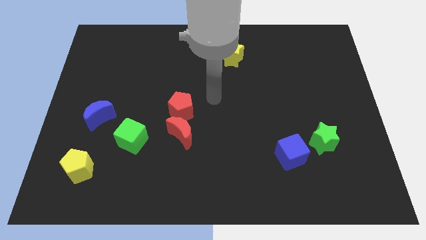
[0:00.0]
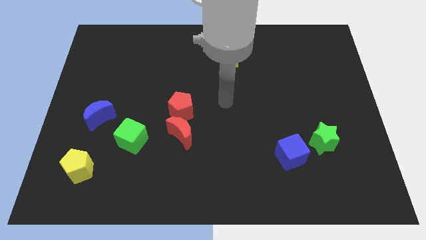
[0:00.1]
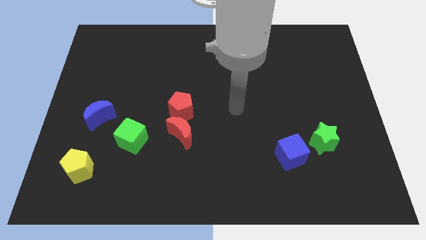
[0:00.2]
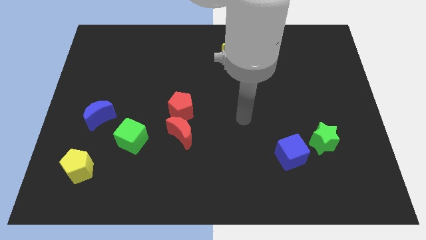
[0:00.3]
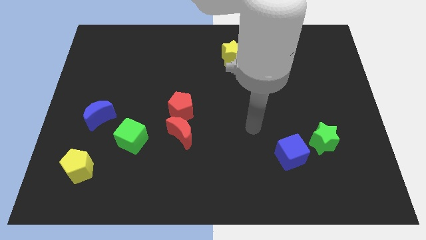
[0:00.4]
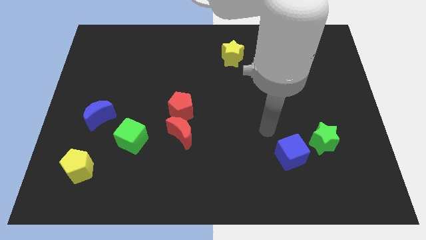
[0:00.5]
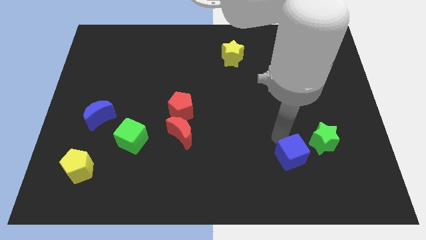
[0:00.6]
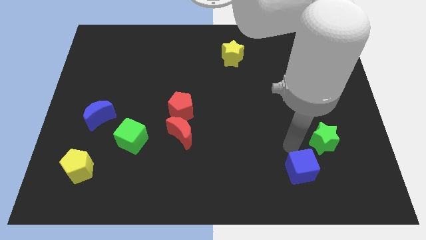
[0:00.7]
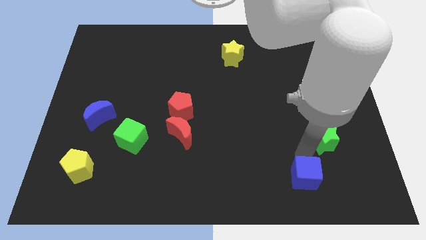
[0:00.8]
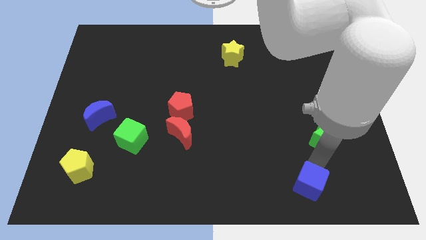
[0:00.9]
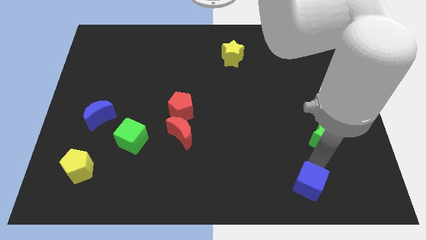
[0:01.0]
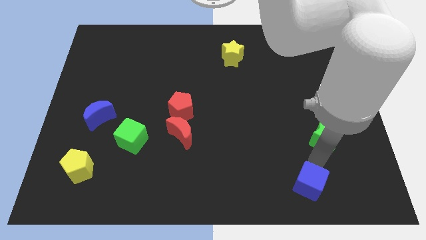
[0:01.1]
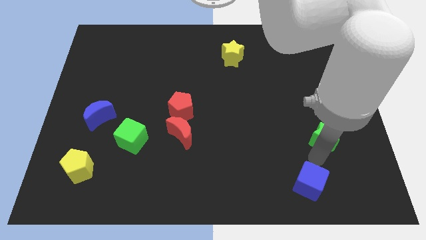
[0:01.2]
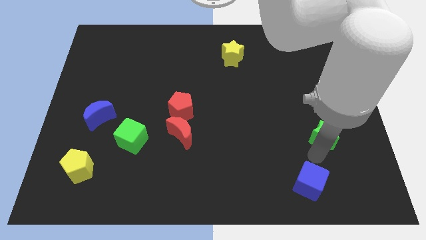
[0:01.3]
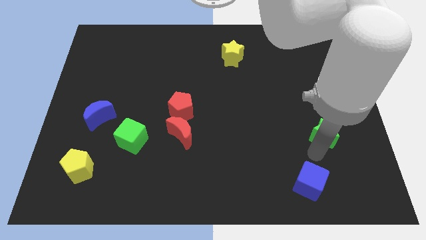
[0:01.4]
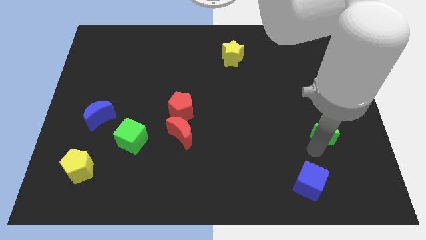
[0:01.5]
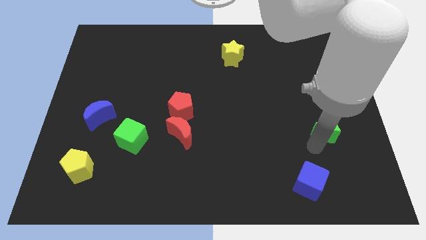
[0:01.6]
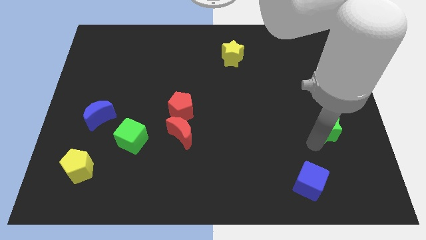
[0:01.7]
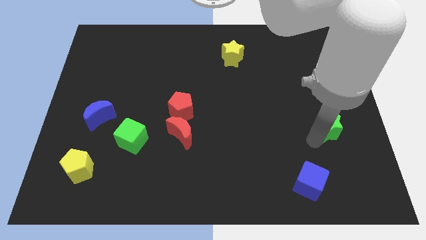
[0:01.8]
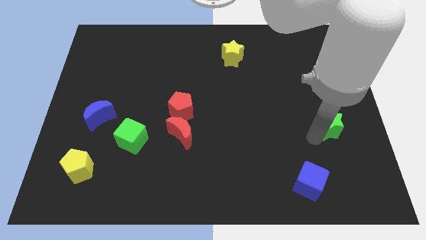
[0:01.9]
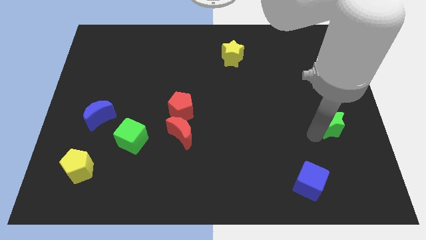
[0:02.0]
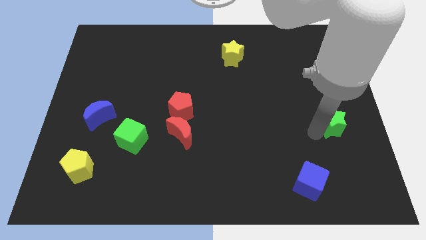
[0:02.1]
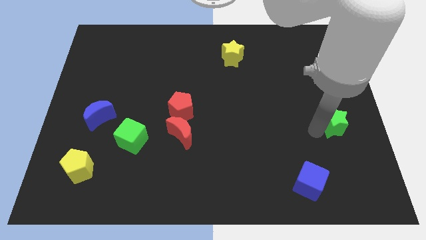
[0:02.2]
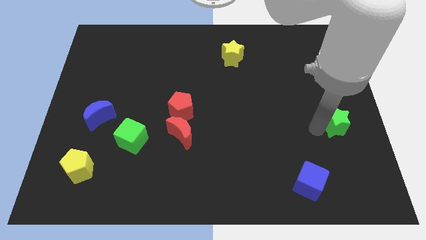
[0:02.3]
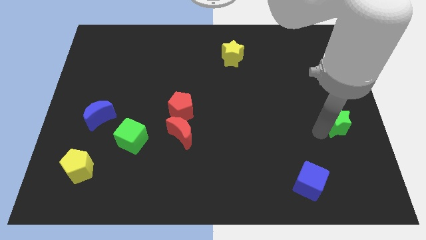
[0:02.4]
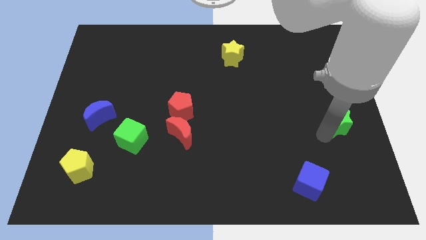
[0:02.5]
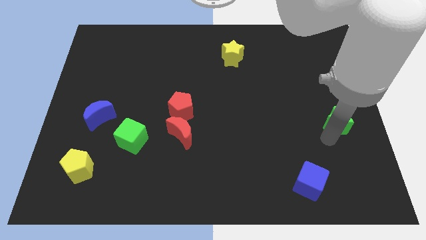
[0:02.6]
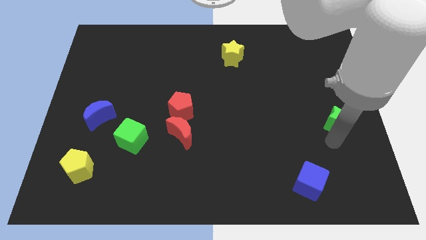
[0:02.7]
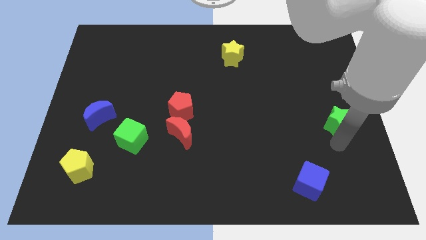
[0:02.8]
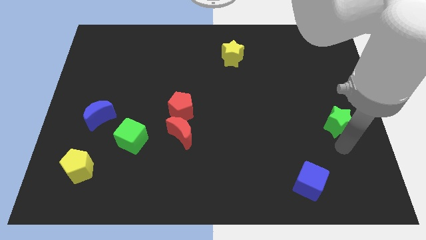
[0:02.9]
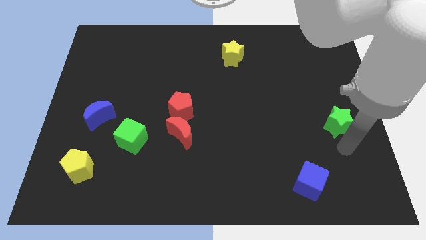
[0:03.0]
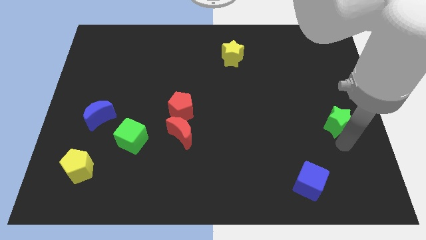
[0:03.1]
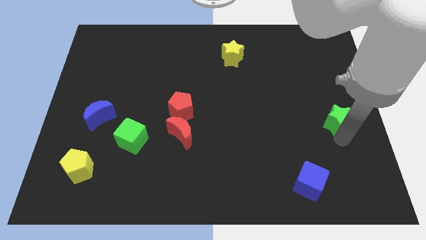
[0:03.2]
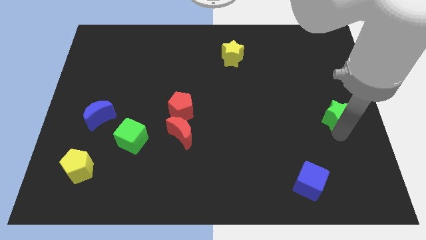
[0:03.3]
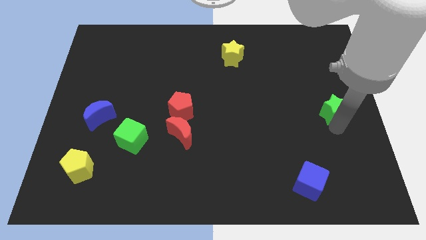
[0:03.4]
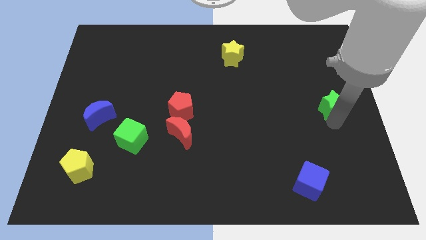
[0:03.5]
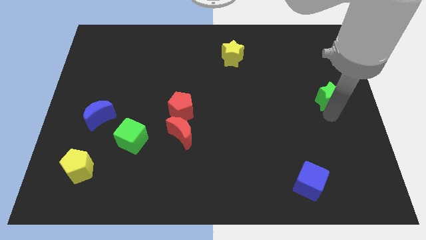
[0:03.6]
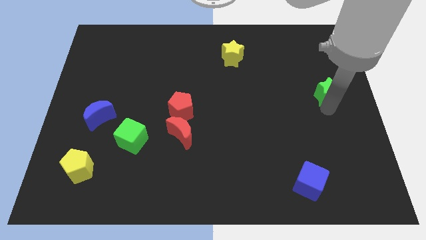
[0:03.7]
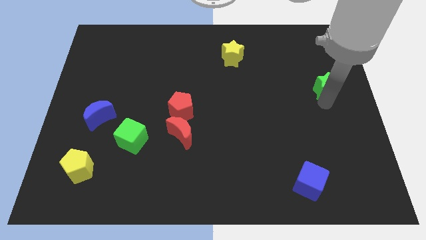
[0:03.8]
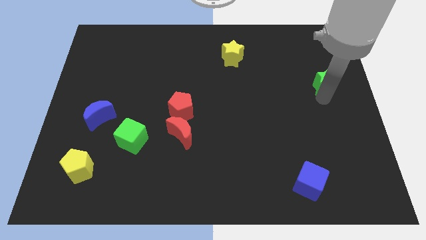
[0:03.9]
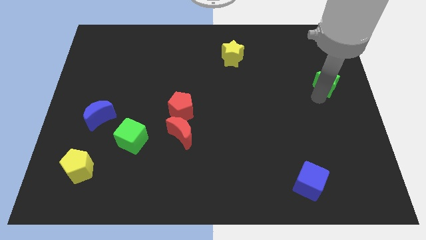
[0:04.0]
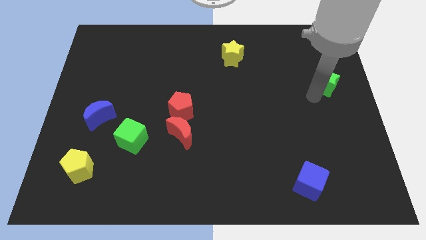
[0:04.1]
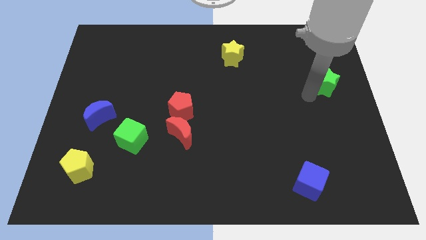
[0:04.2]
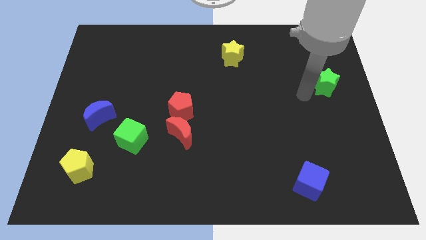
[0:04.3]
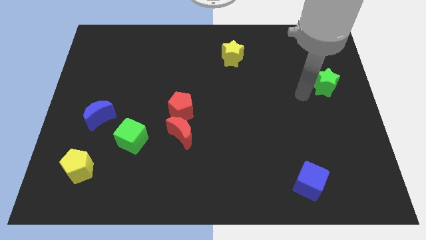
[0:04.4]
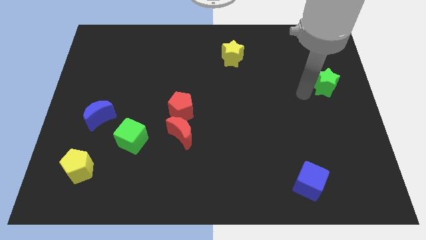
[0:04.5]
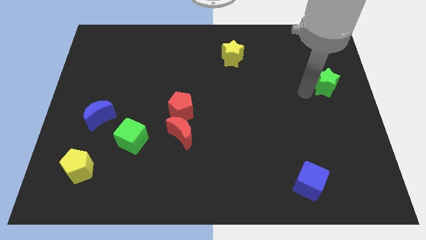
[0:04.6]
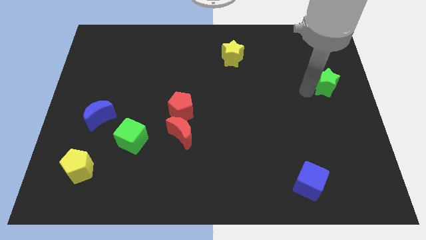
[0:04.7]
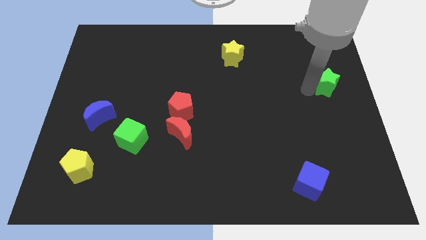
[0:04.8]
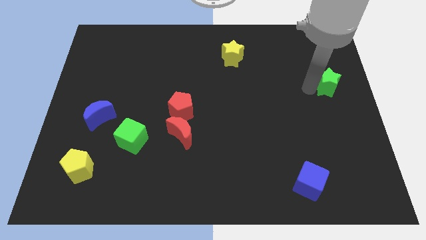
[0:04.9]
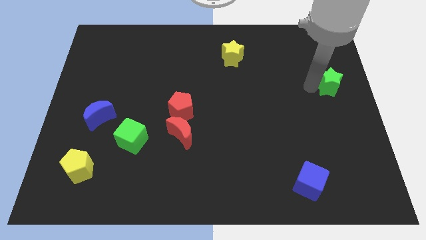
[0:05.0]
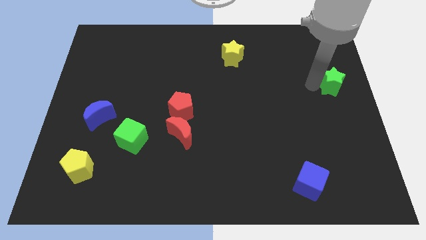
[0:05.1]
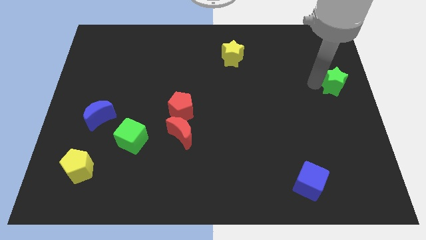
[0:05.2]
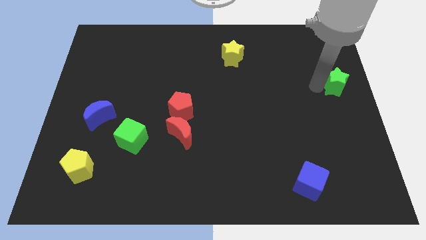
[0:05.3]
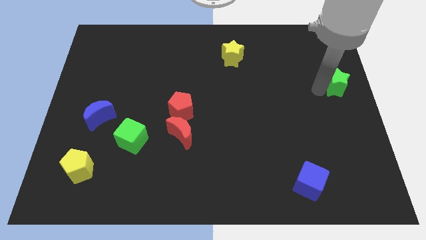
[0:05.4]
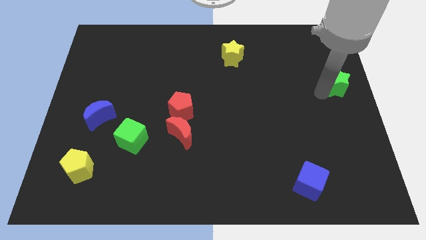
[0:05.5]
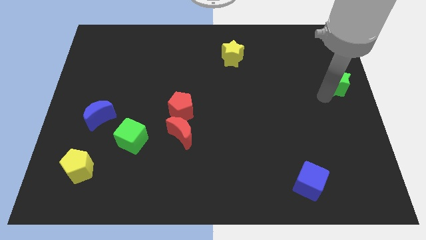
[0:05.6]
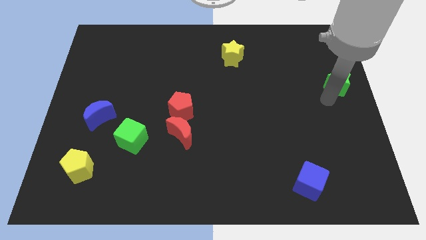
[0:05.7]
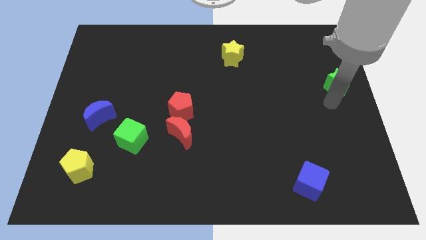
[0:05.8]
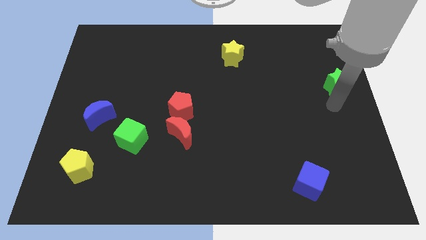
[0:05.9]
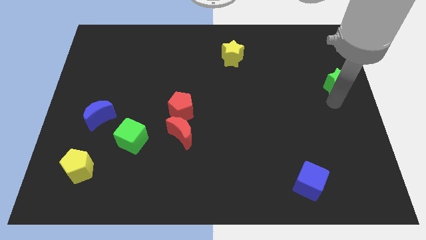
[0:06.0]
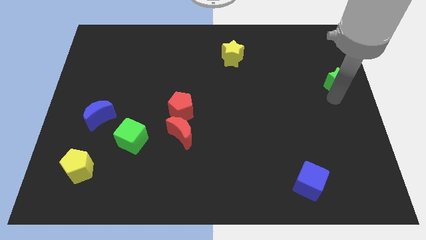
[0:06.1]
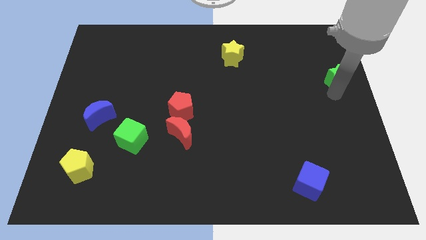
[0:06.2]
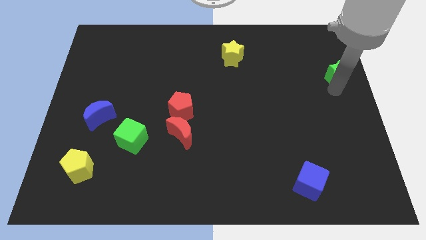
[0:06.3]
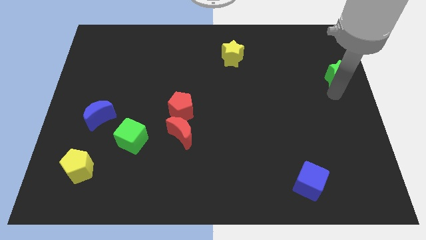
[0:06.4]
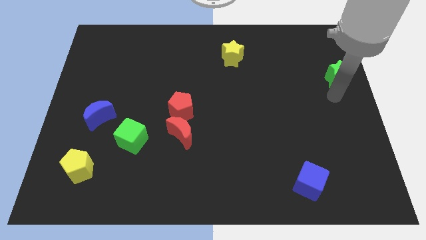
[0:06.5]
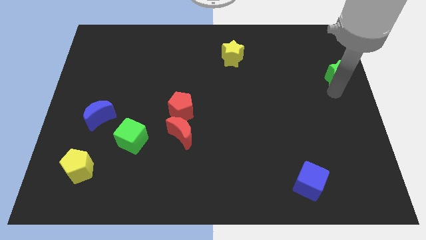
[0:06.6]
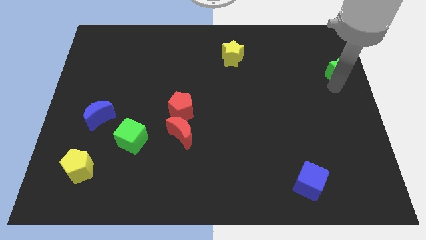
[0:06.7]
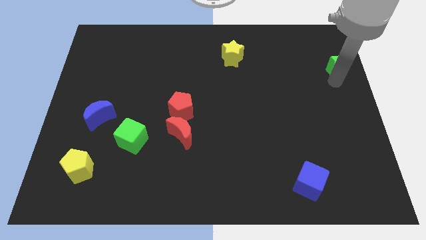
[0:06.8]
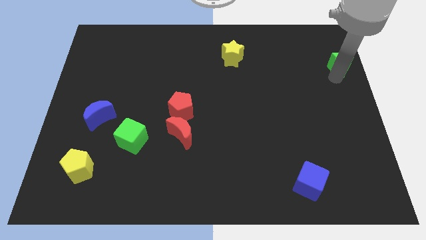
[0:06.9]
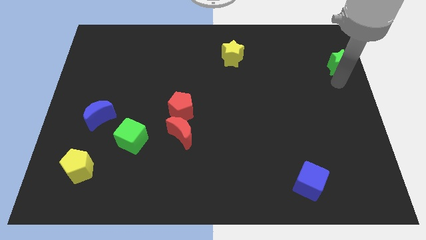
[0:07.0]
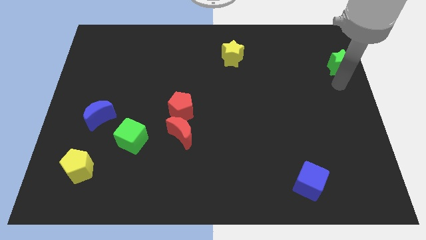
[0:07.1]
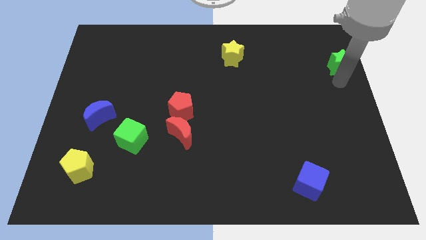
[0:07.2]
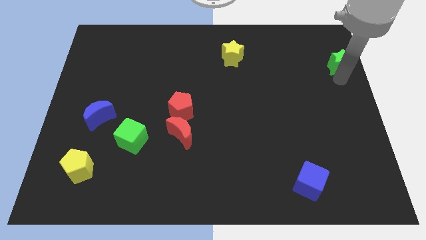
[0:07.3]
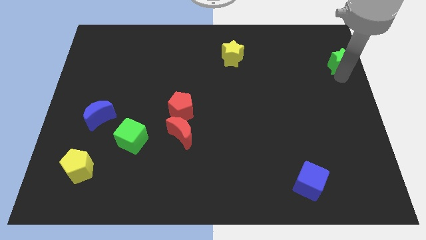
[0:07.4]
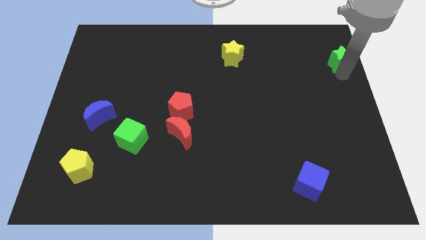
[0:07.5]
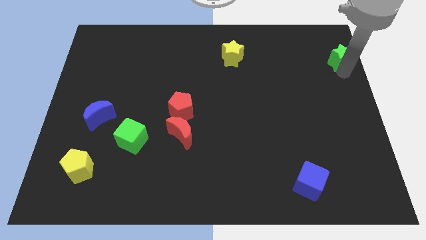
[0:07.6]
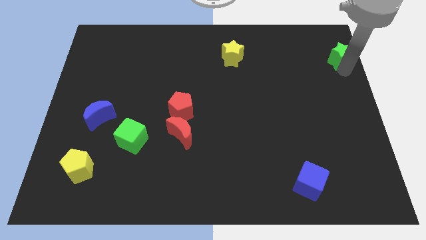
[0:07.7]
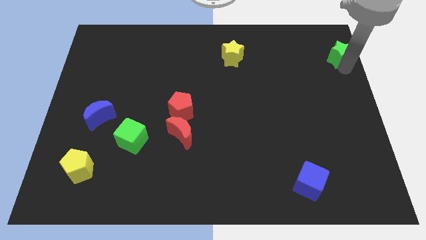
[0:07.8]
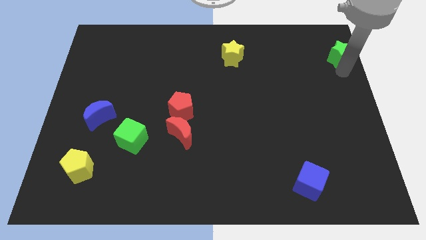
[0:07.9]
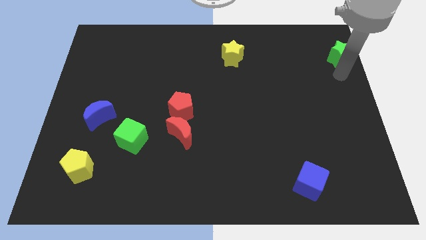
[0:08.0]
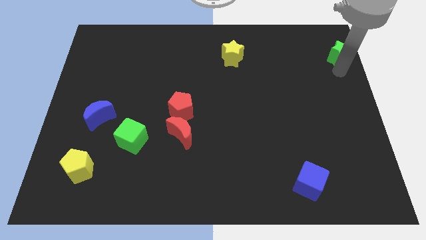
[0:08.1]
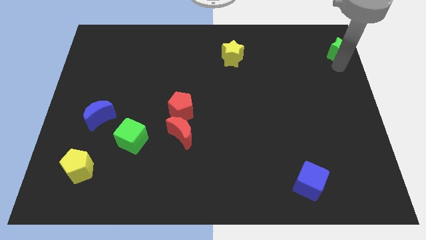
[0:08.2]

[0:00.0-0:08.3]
push the green star to the upper right corner
